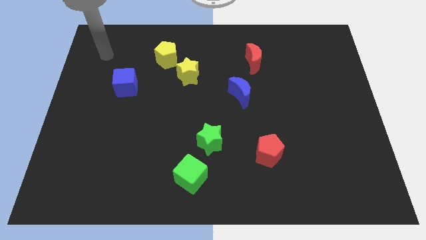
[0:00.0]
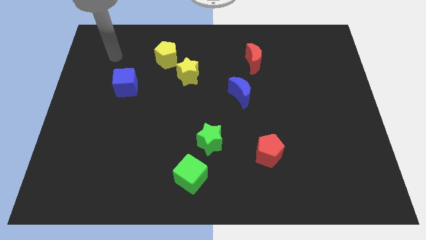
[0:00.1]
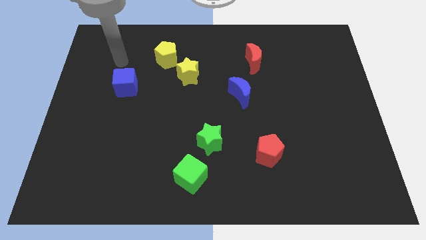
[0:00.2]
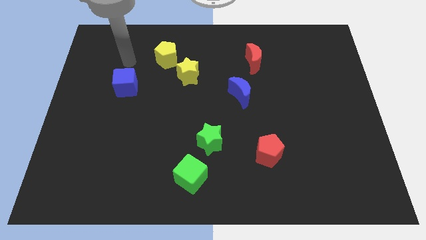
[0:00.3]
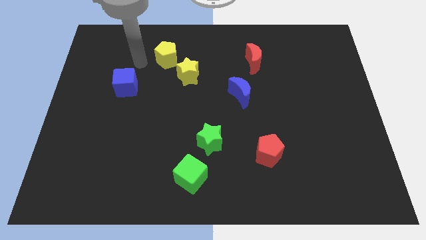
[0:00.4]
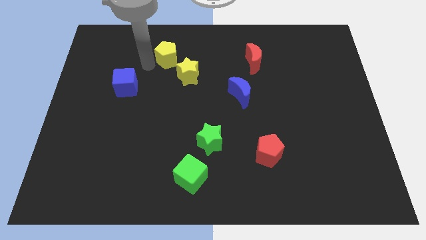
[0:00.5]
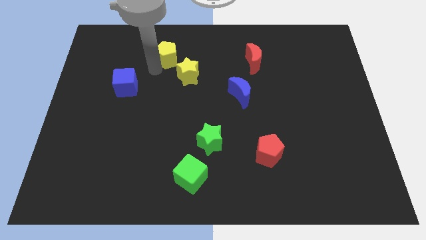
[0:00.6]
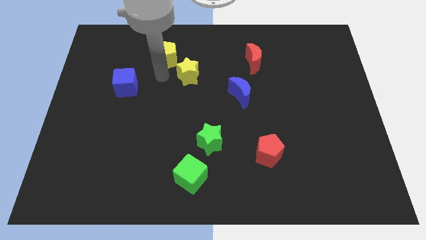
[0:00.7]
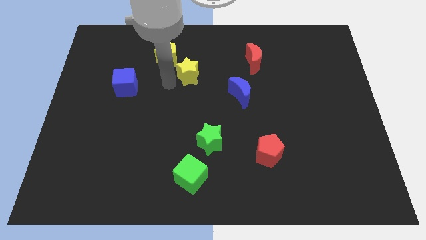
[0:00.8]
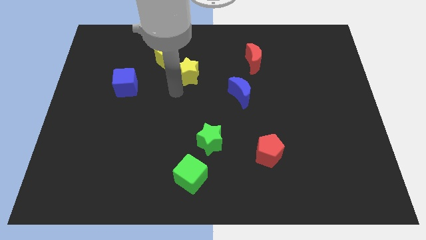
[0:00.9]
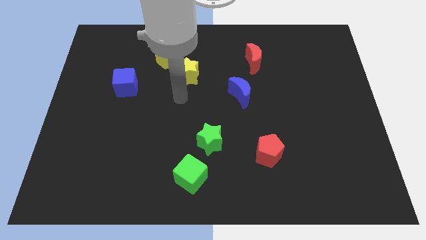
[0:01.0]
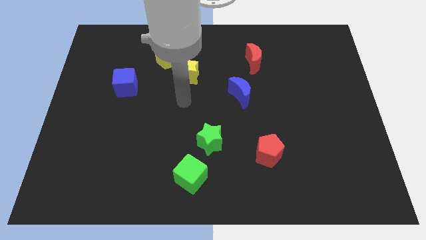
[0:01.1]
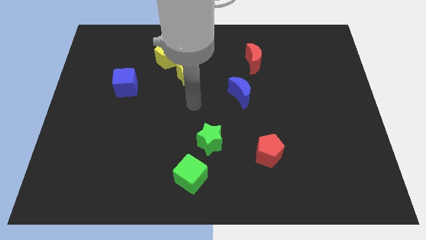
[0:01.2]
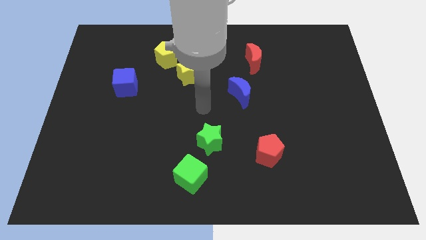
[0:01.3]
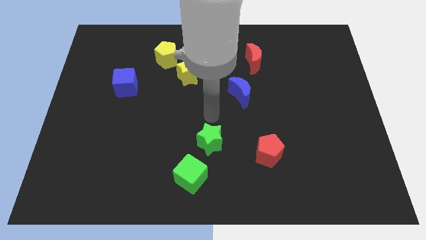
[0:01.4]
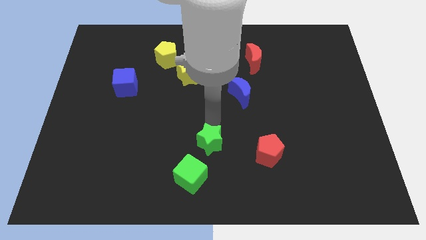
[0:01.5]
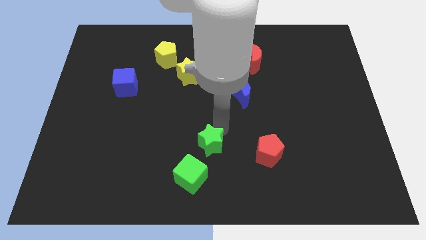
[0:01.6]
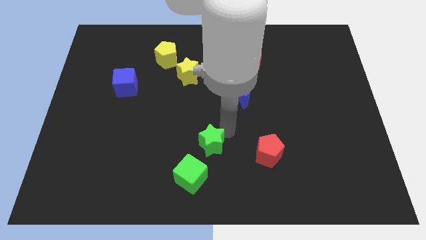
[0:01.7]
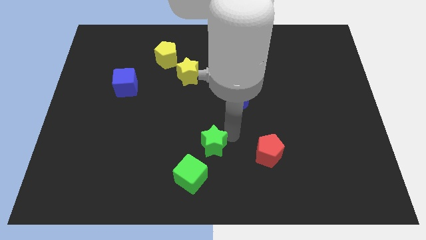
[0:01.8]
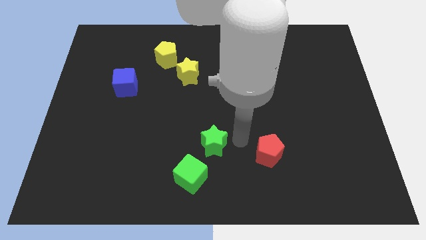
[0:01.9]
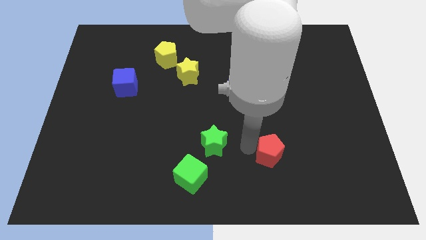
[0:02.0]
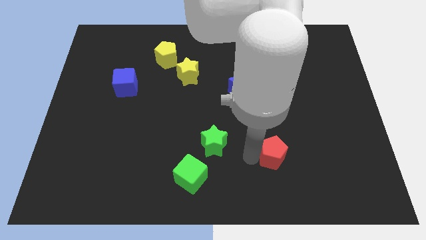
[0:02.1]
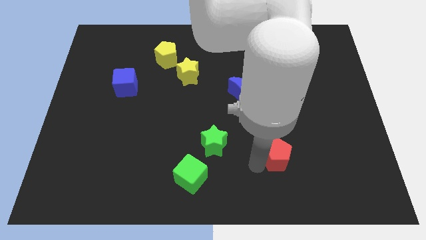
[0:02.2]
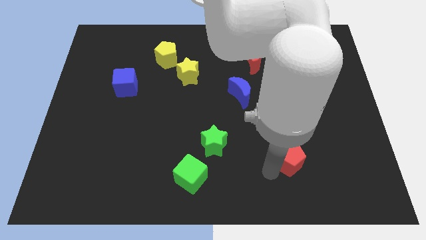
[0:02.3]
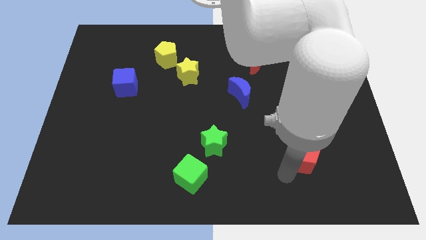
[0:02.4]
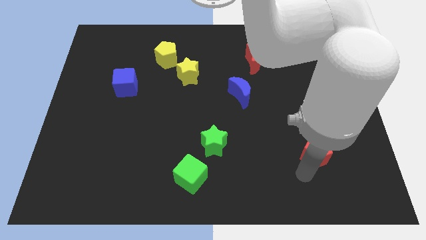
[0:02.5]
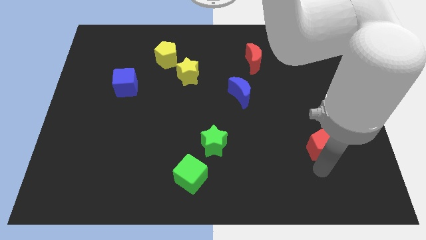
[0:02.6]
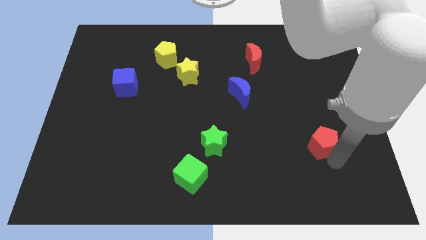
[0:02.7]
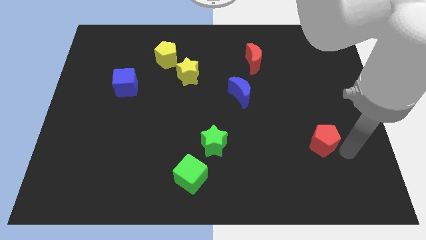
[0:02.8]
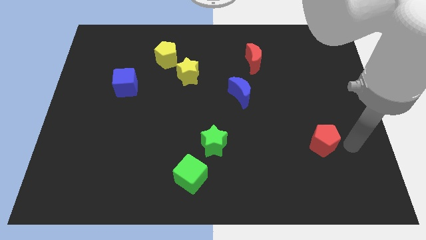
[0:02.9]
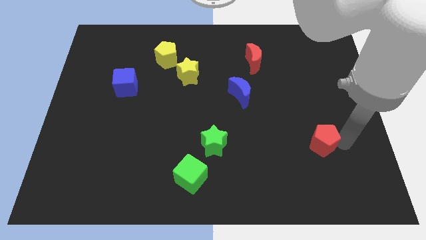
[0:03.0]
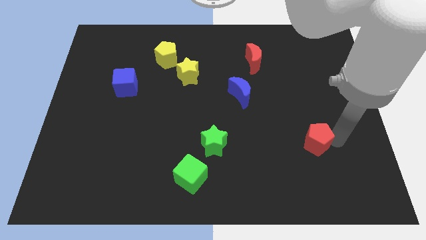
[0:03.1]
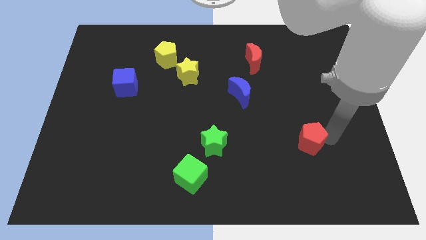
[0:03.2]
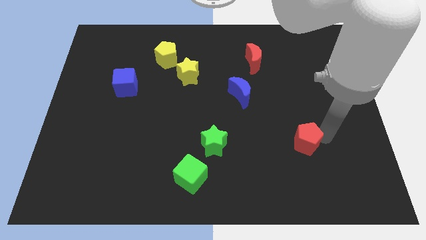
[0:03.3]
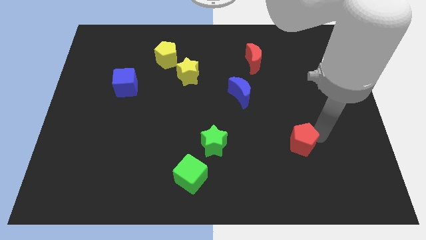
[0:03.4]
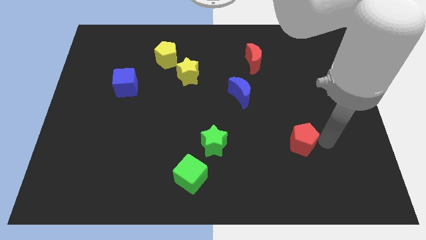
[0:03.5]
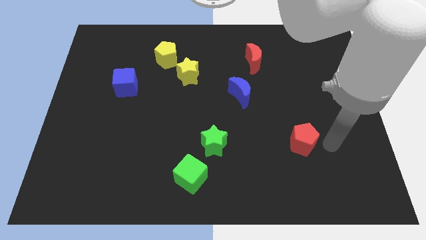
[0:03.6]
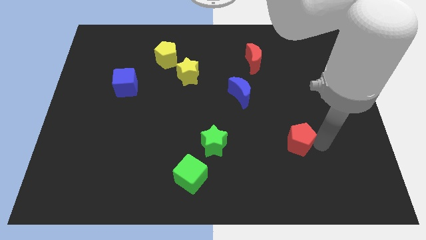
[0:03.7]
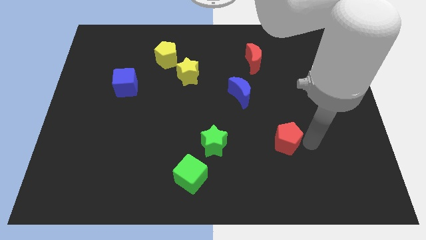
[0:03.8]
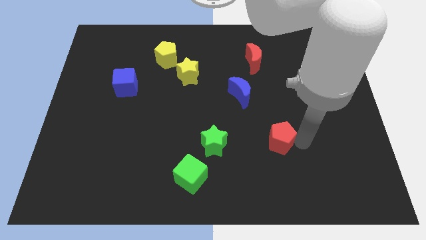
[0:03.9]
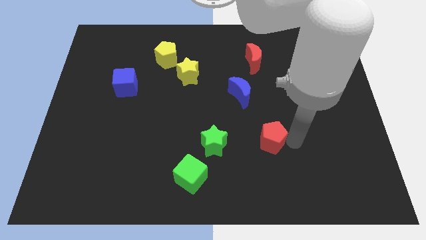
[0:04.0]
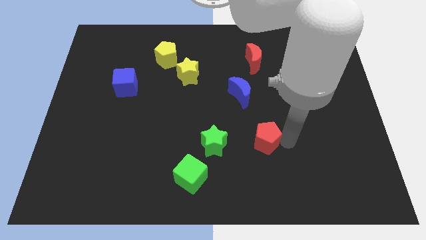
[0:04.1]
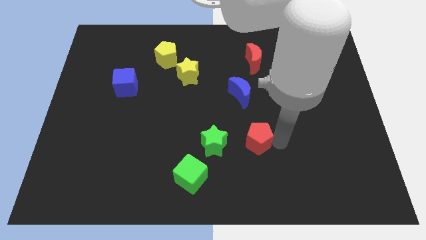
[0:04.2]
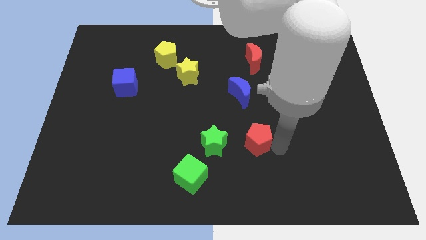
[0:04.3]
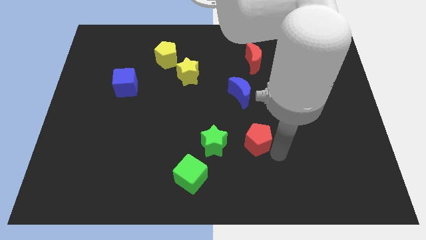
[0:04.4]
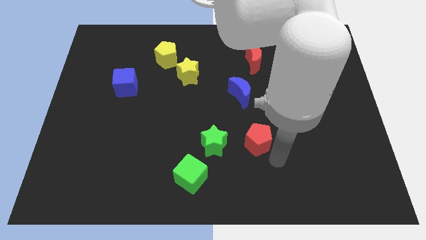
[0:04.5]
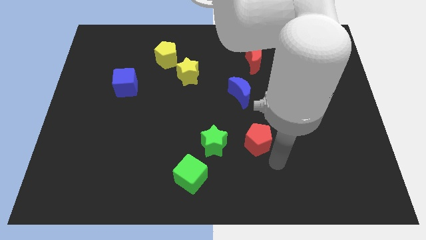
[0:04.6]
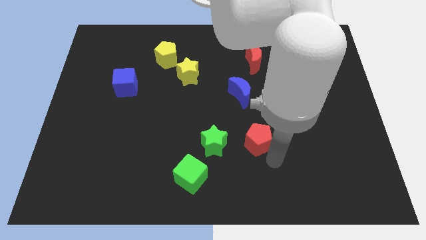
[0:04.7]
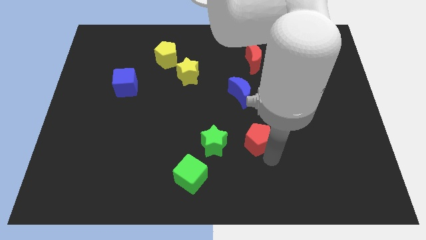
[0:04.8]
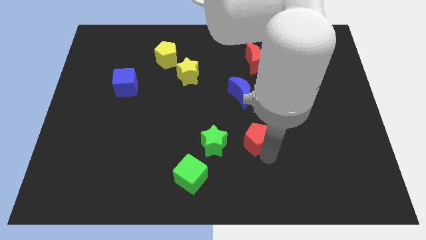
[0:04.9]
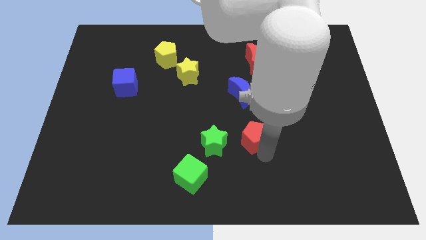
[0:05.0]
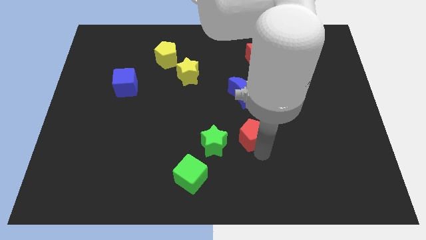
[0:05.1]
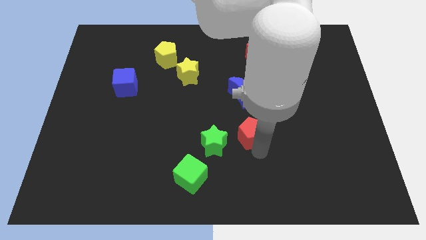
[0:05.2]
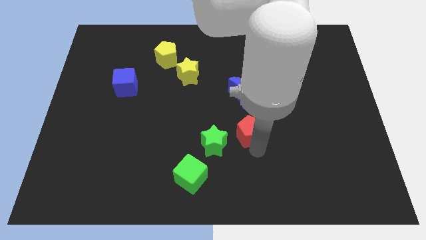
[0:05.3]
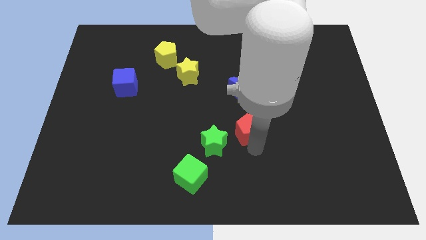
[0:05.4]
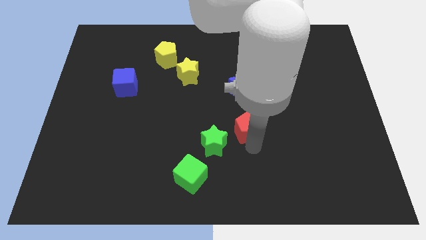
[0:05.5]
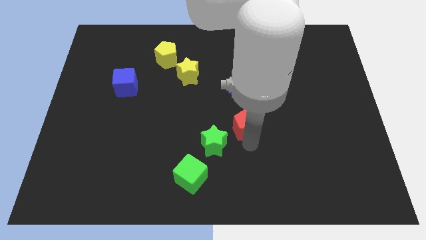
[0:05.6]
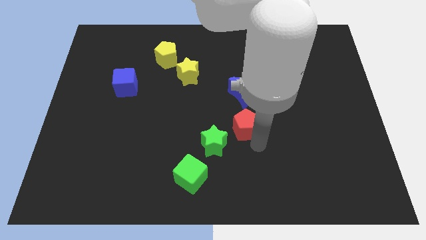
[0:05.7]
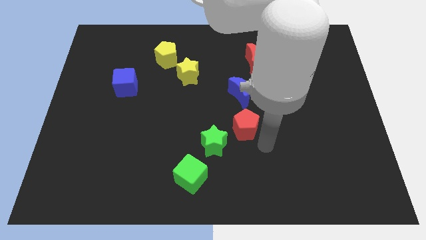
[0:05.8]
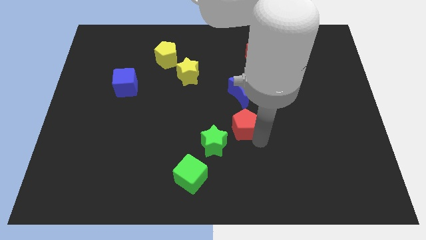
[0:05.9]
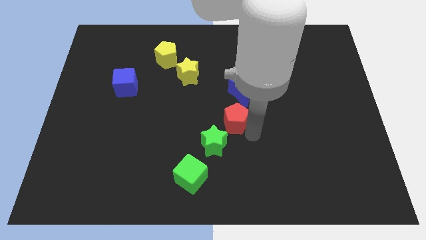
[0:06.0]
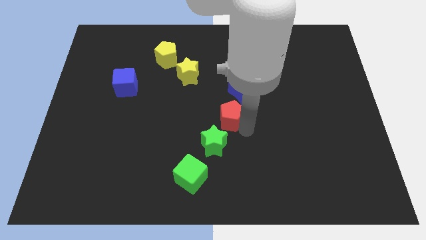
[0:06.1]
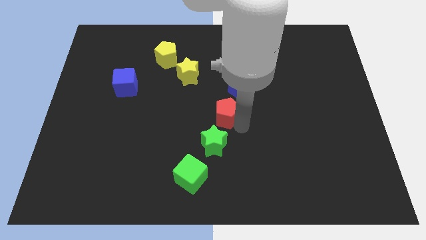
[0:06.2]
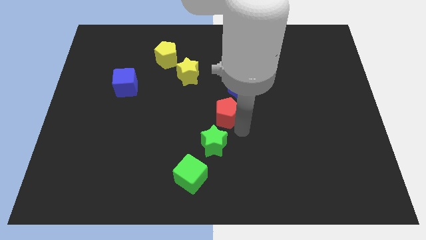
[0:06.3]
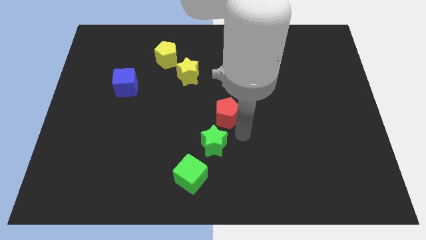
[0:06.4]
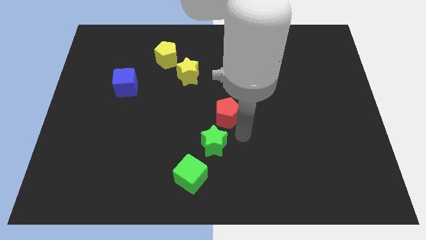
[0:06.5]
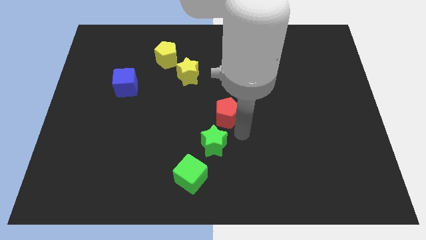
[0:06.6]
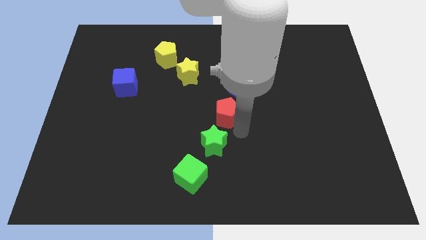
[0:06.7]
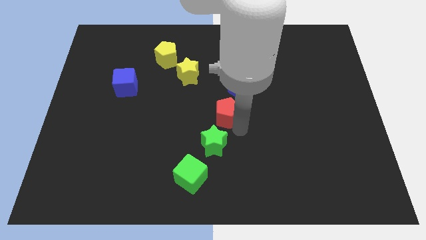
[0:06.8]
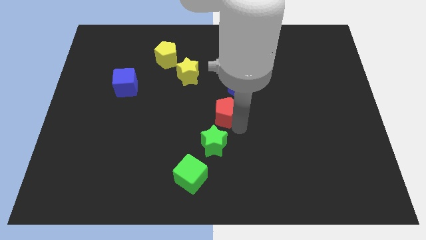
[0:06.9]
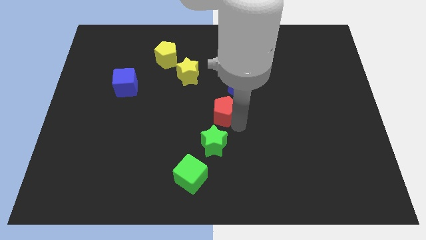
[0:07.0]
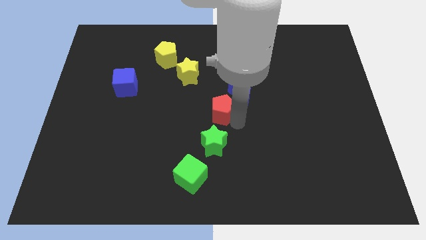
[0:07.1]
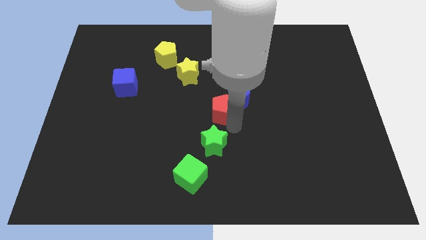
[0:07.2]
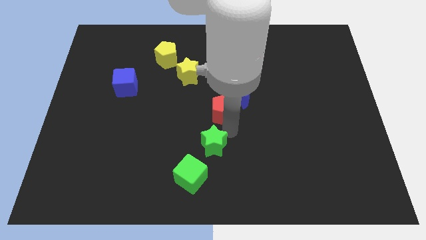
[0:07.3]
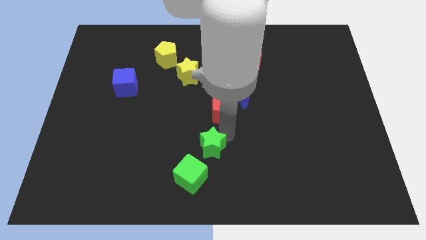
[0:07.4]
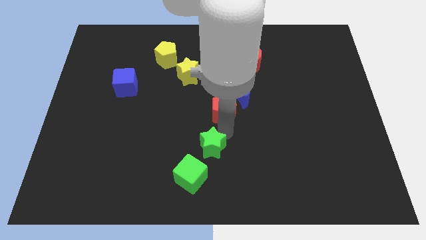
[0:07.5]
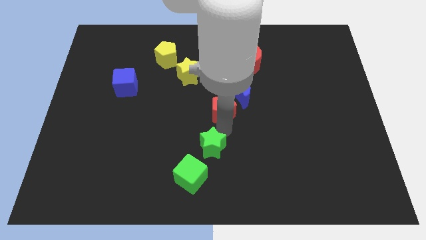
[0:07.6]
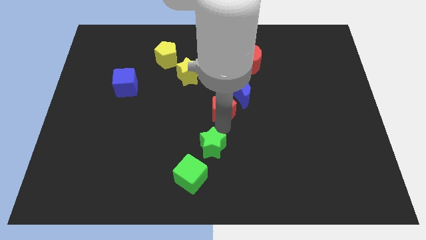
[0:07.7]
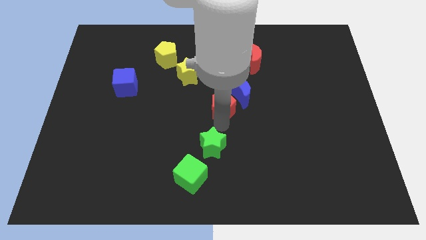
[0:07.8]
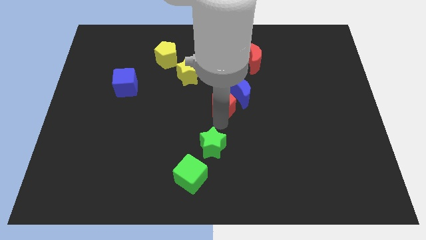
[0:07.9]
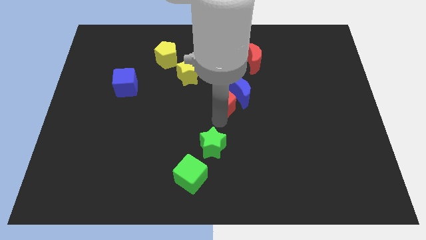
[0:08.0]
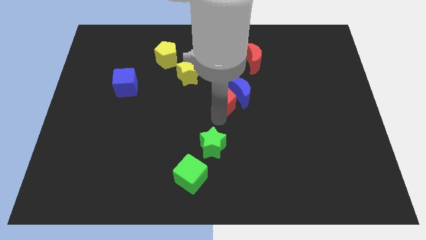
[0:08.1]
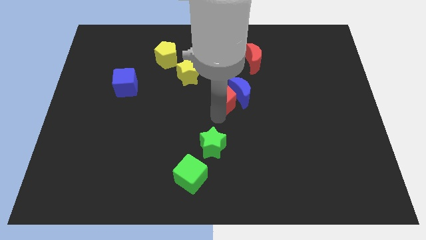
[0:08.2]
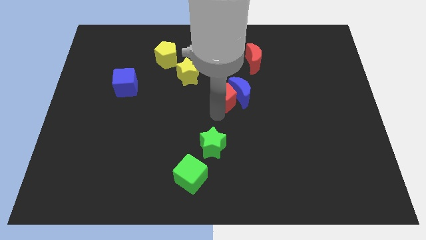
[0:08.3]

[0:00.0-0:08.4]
move the red pentagon to the top left side of the blue moon
